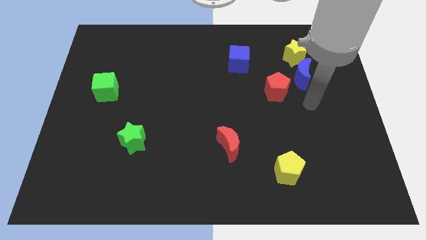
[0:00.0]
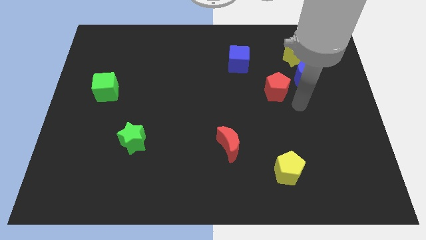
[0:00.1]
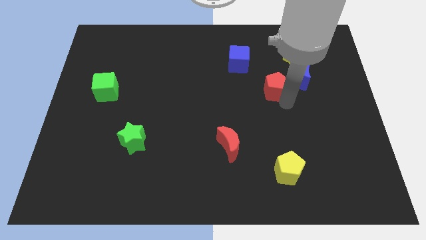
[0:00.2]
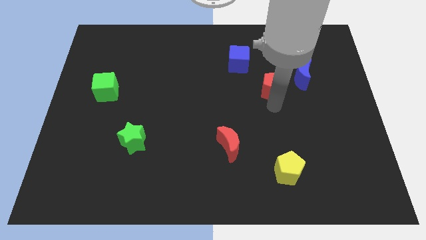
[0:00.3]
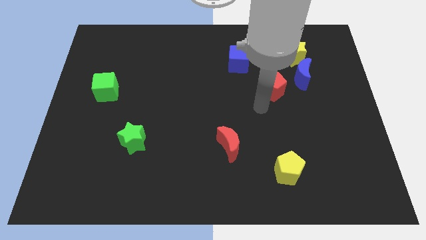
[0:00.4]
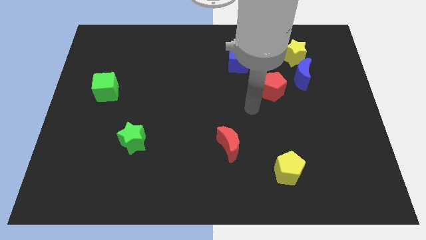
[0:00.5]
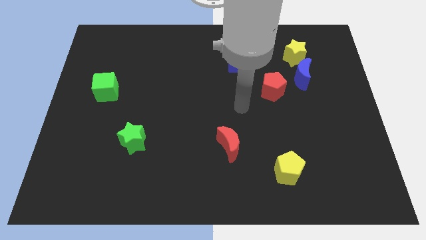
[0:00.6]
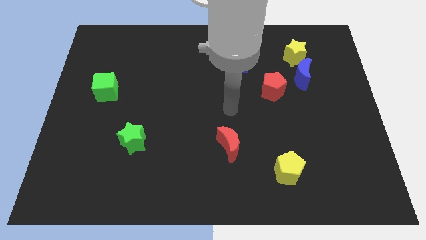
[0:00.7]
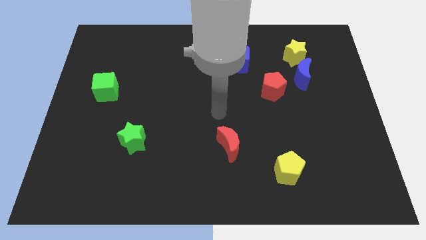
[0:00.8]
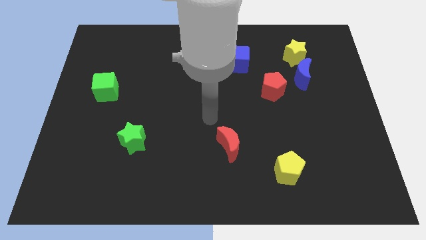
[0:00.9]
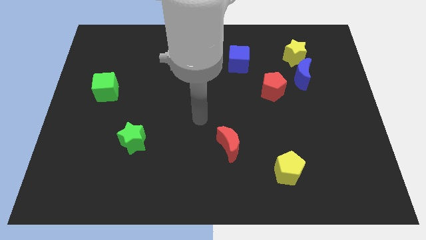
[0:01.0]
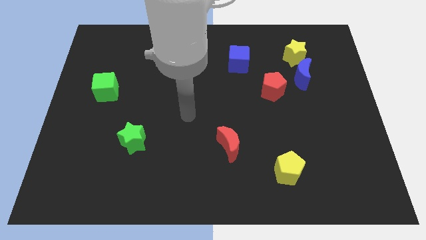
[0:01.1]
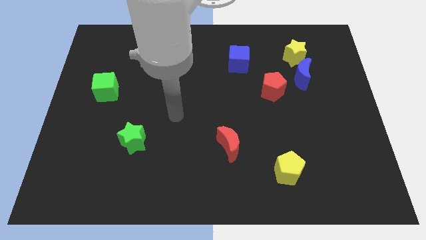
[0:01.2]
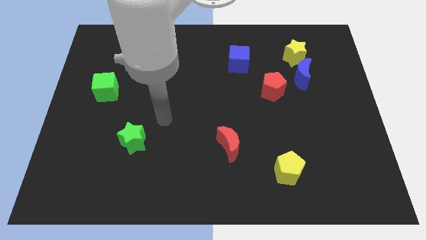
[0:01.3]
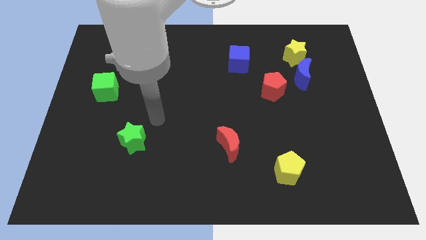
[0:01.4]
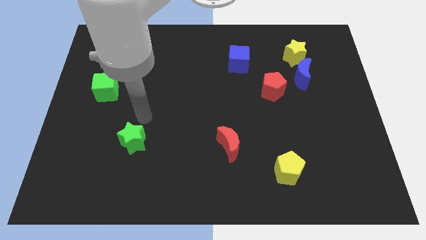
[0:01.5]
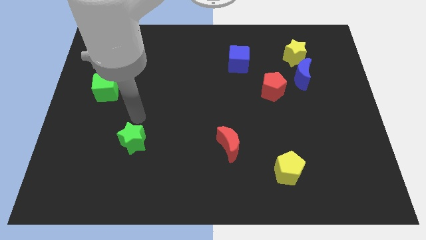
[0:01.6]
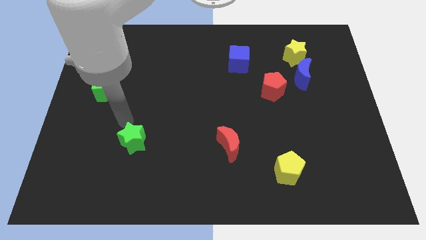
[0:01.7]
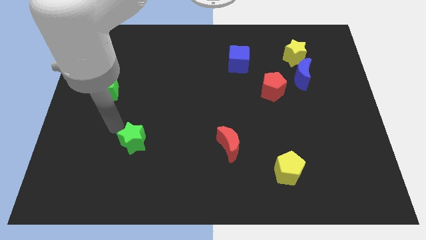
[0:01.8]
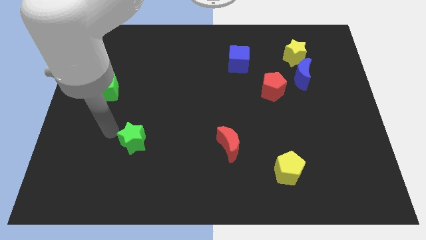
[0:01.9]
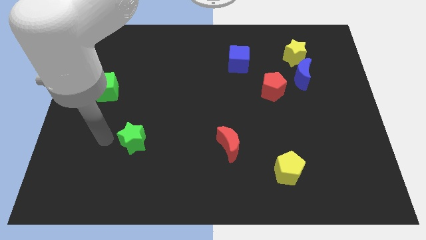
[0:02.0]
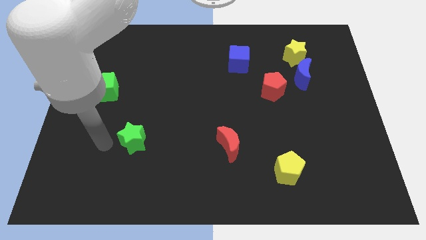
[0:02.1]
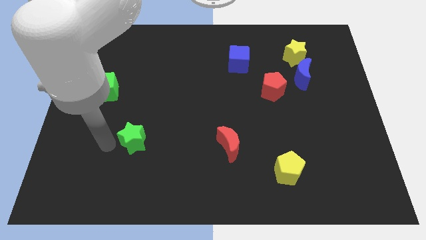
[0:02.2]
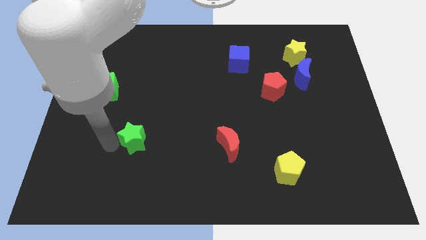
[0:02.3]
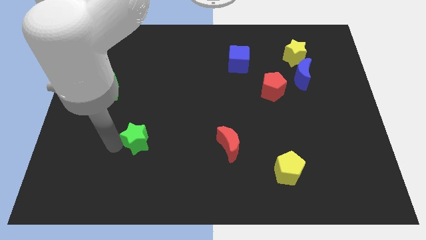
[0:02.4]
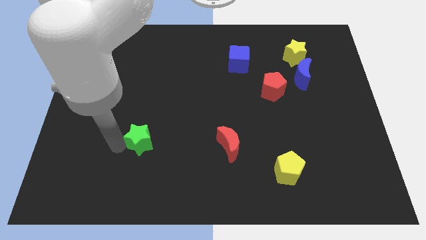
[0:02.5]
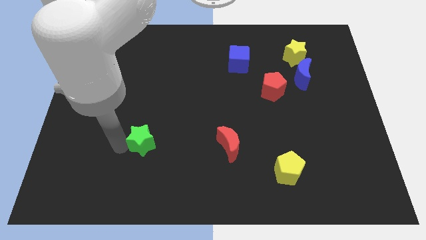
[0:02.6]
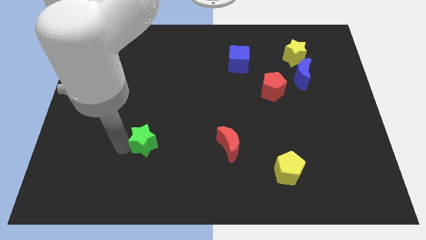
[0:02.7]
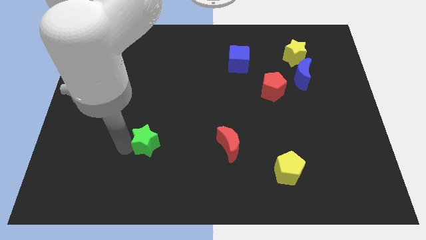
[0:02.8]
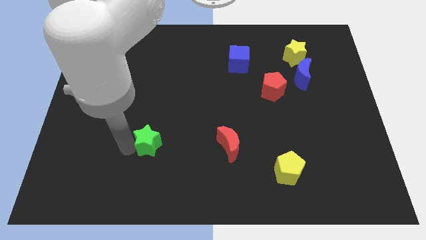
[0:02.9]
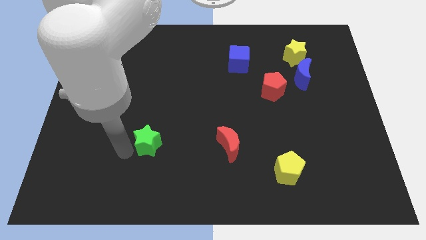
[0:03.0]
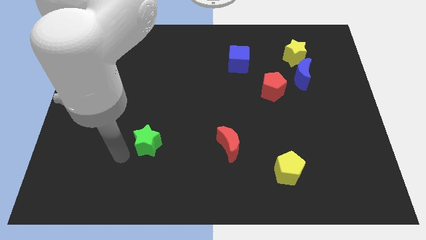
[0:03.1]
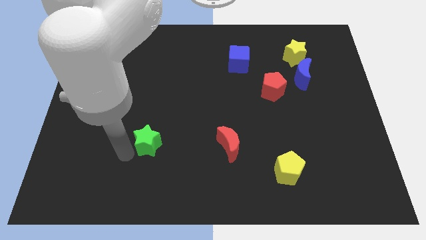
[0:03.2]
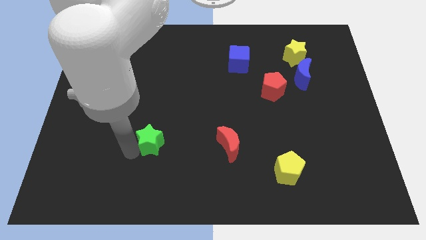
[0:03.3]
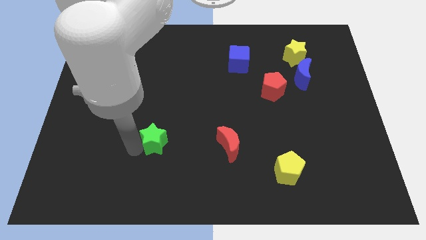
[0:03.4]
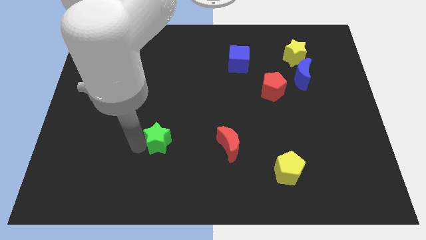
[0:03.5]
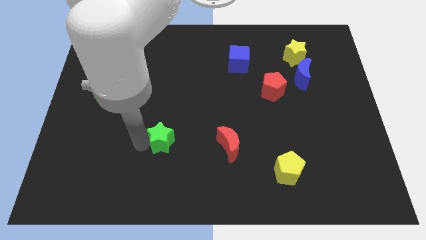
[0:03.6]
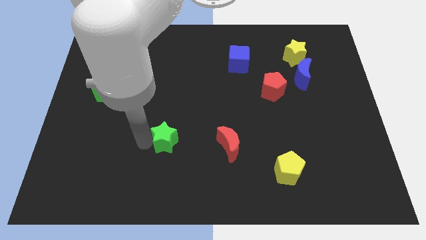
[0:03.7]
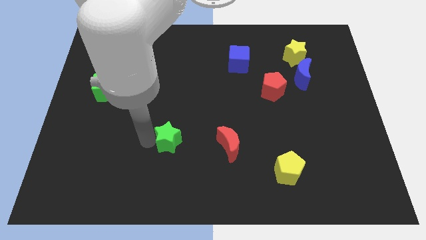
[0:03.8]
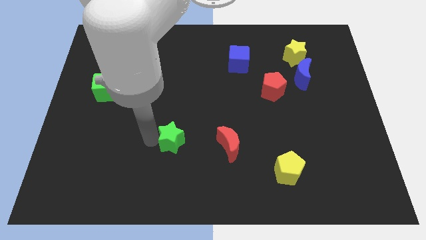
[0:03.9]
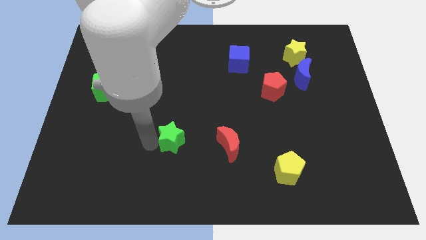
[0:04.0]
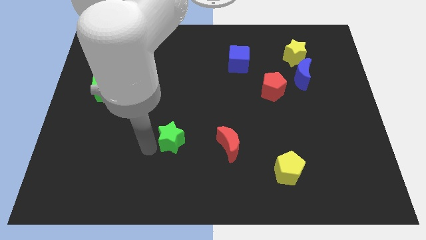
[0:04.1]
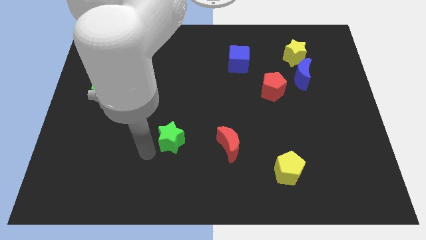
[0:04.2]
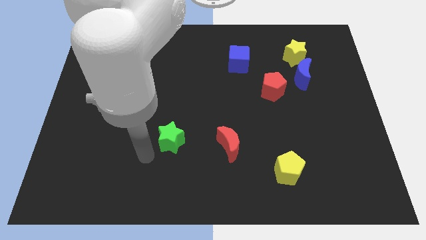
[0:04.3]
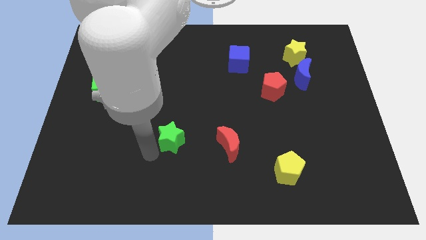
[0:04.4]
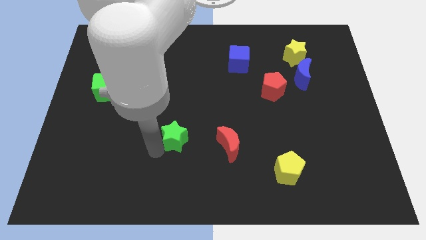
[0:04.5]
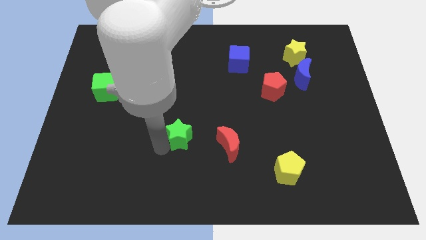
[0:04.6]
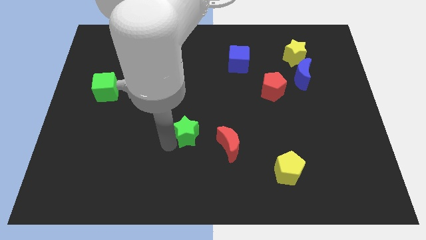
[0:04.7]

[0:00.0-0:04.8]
put the green star to the top left of the red moon
